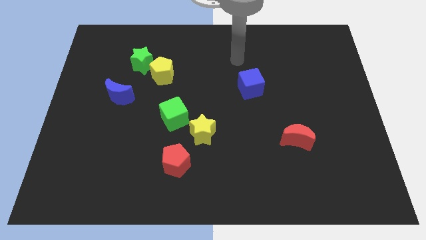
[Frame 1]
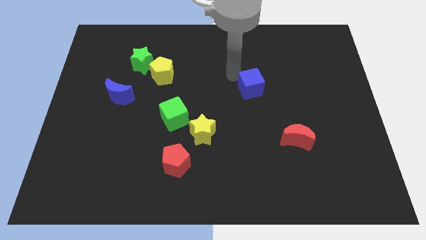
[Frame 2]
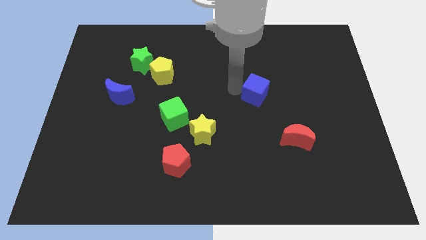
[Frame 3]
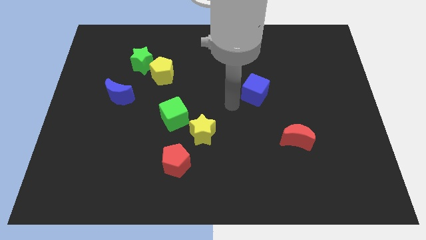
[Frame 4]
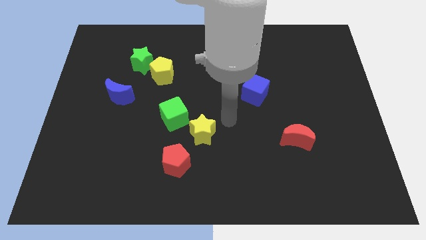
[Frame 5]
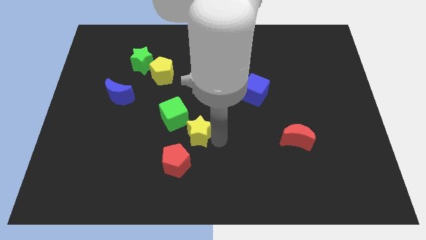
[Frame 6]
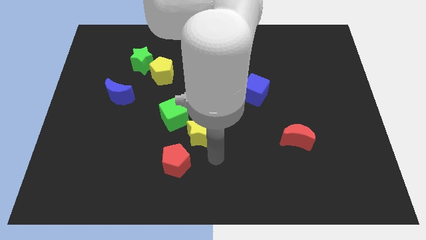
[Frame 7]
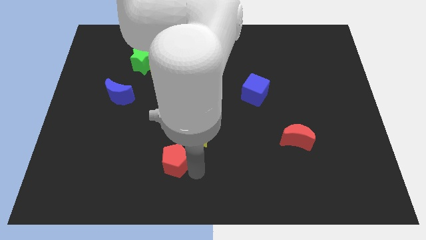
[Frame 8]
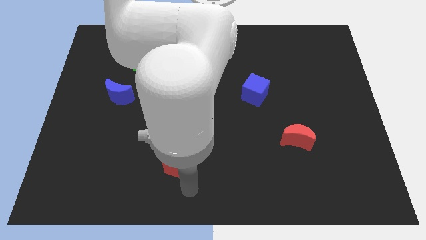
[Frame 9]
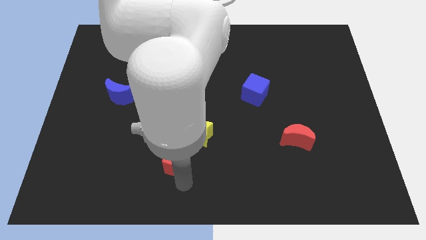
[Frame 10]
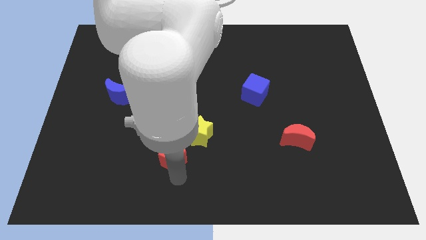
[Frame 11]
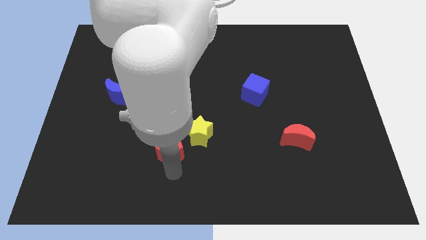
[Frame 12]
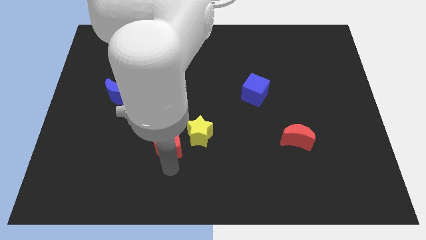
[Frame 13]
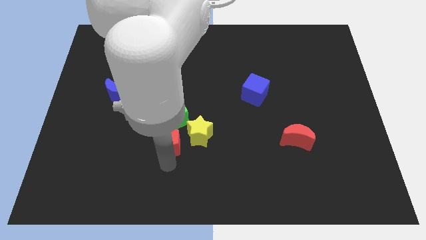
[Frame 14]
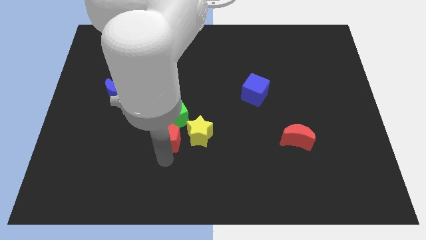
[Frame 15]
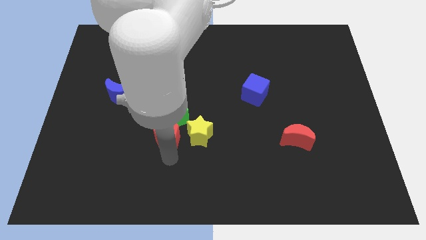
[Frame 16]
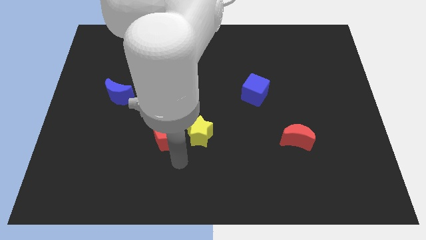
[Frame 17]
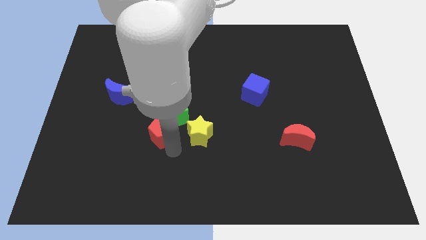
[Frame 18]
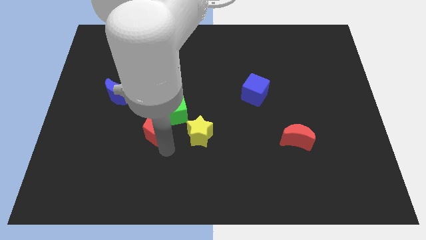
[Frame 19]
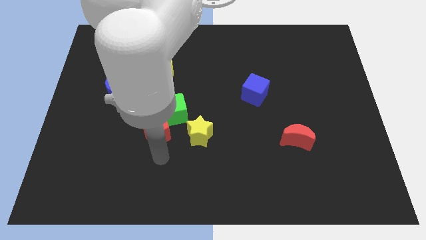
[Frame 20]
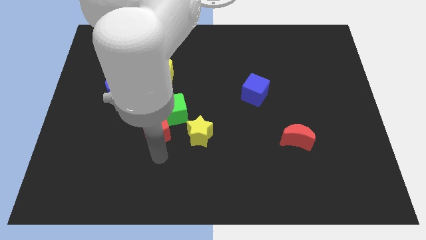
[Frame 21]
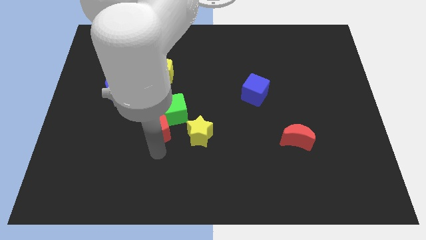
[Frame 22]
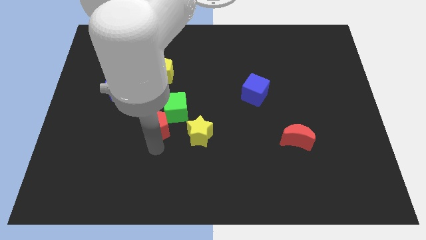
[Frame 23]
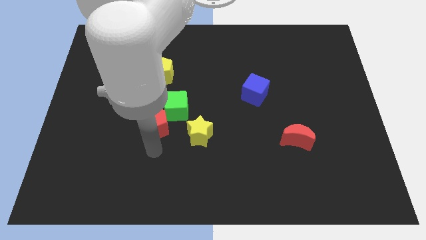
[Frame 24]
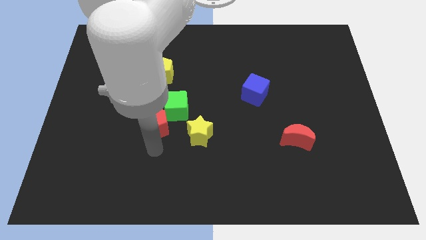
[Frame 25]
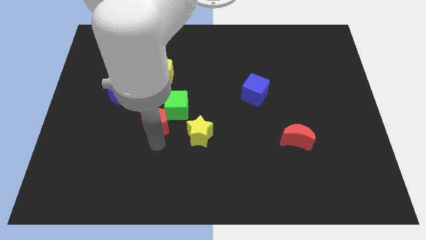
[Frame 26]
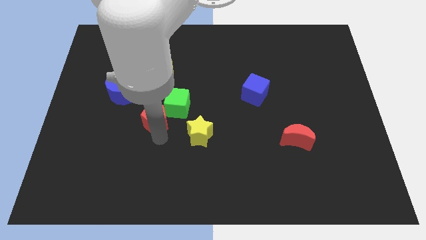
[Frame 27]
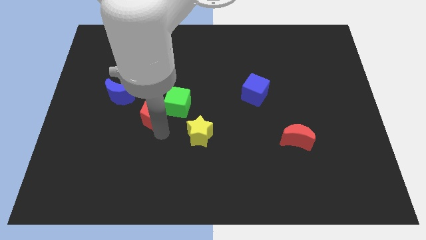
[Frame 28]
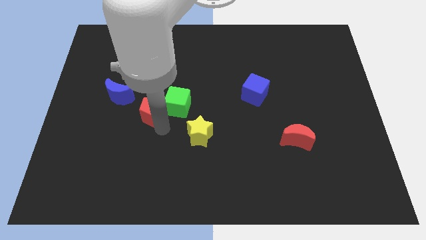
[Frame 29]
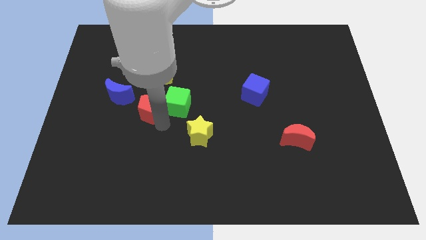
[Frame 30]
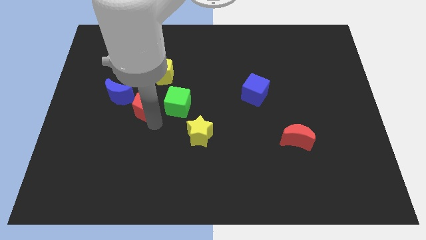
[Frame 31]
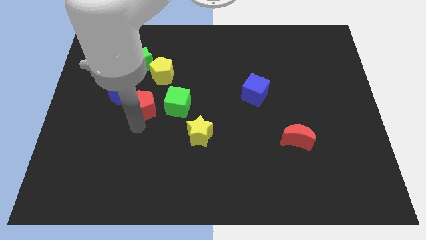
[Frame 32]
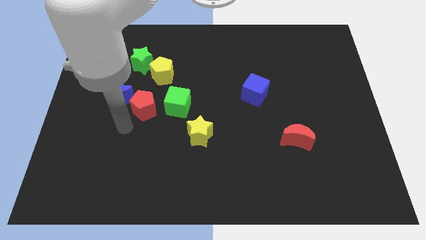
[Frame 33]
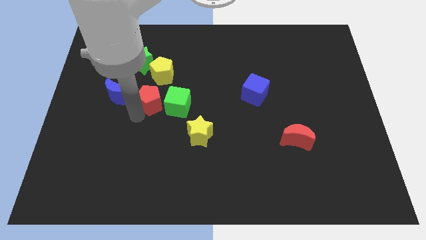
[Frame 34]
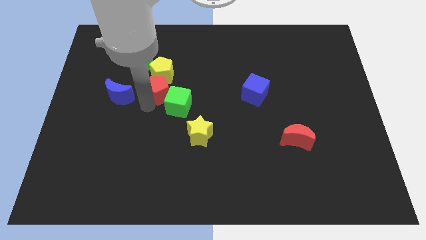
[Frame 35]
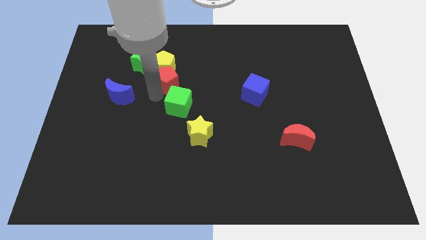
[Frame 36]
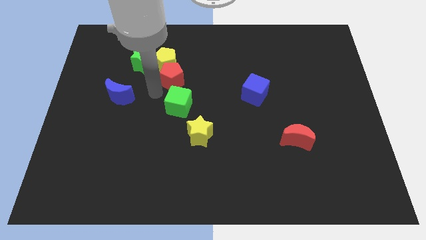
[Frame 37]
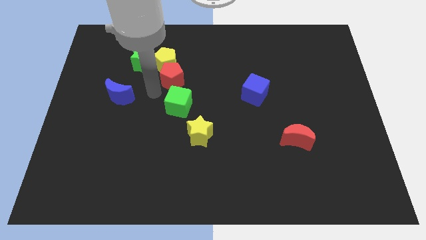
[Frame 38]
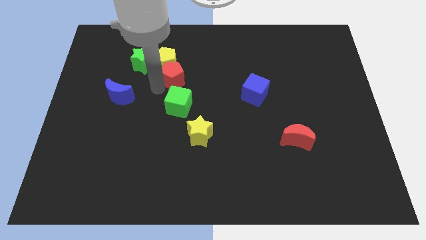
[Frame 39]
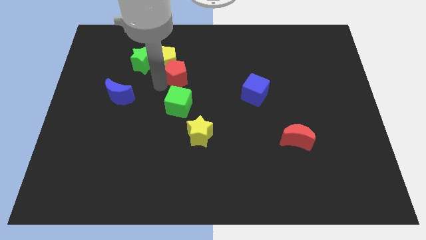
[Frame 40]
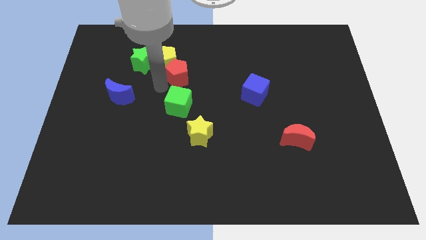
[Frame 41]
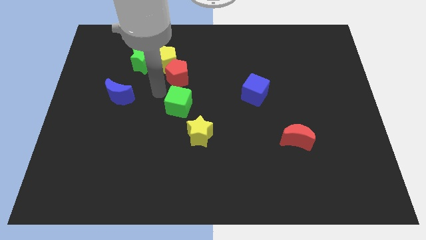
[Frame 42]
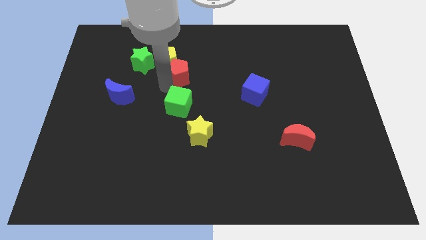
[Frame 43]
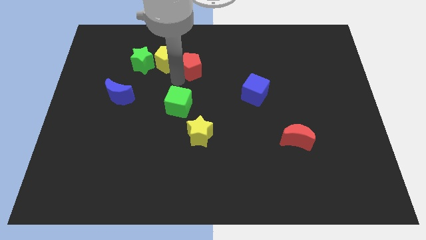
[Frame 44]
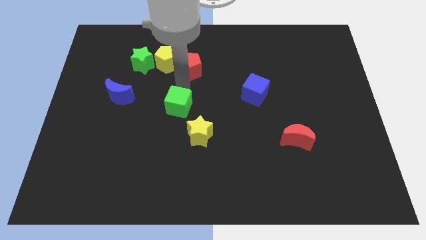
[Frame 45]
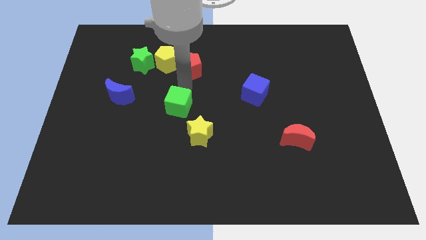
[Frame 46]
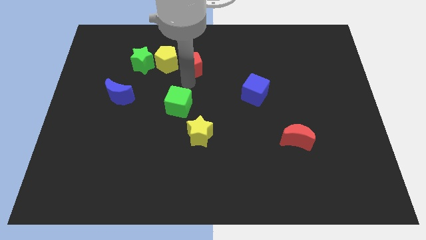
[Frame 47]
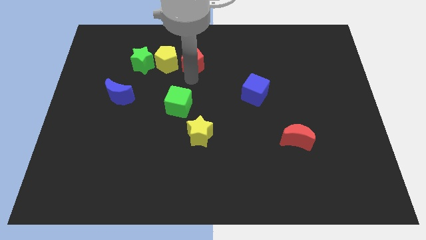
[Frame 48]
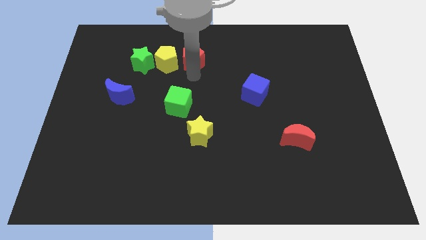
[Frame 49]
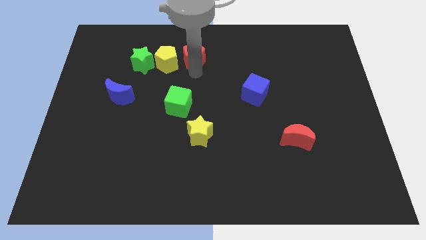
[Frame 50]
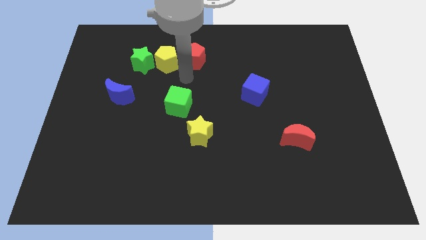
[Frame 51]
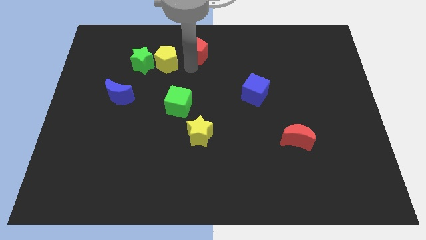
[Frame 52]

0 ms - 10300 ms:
push the red pentagon to the top

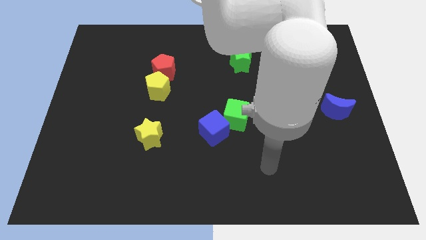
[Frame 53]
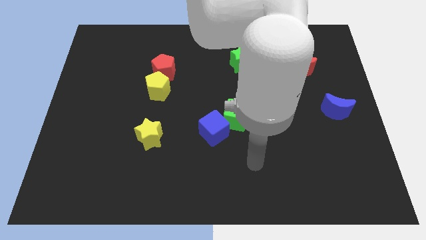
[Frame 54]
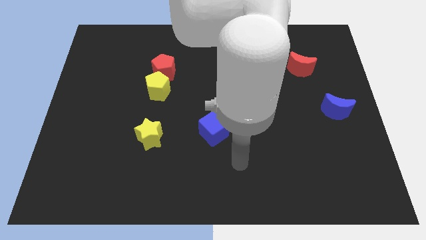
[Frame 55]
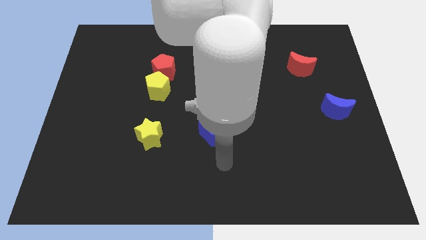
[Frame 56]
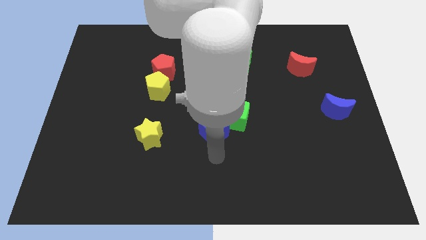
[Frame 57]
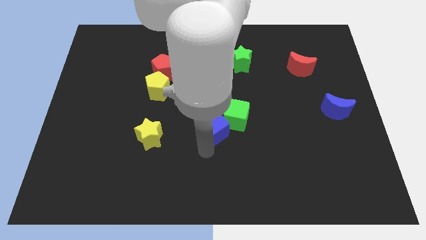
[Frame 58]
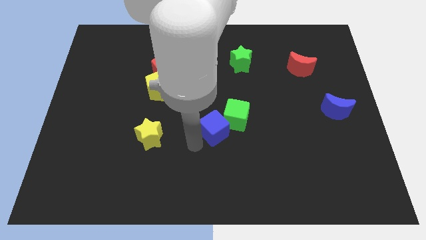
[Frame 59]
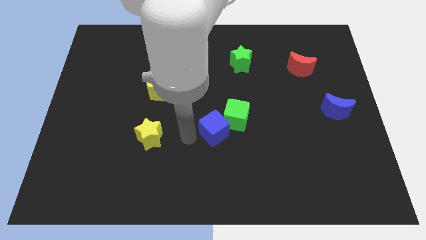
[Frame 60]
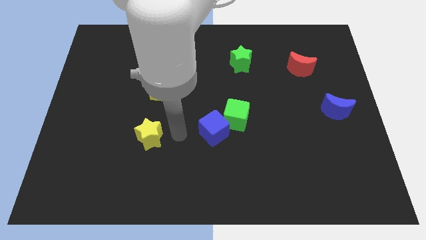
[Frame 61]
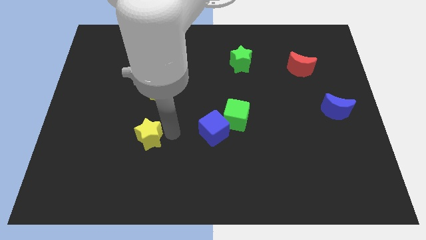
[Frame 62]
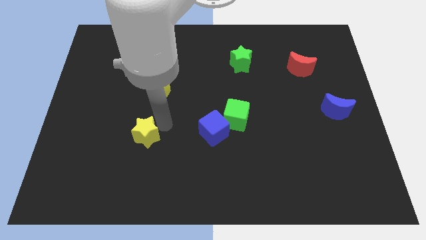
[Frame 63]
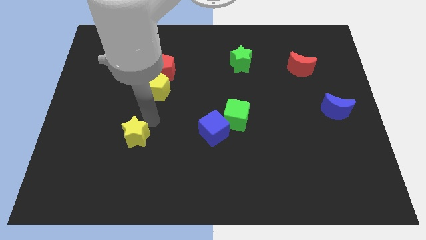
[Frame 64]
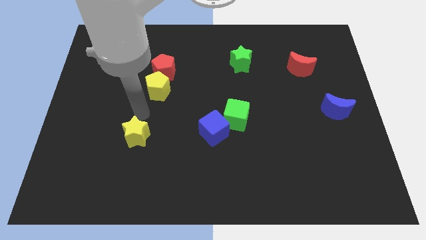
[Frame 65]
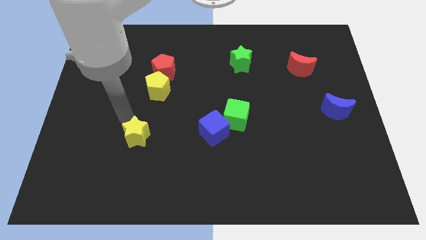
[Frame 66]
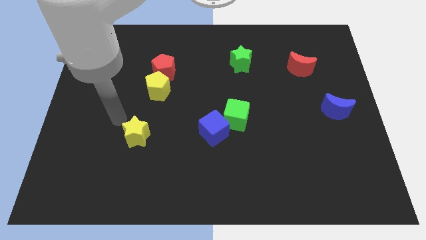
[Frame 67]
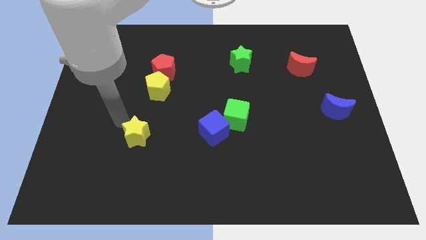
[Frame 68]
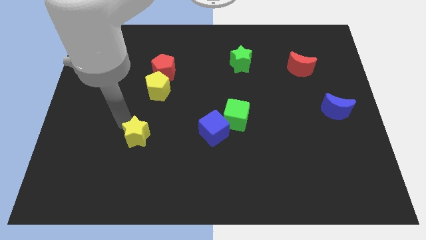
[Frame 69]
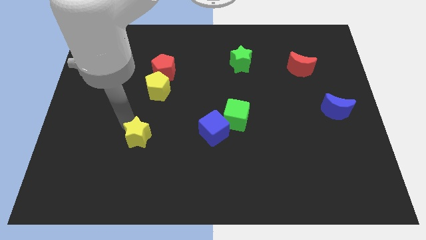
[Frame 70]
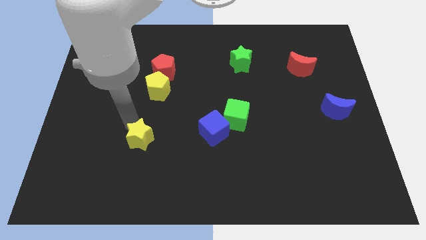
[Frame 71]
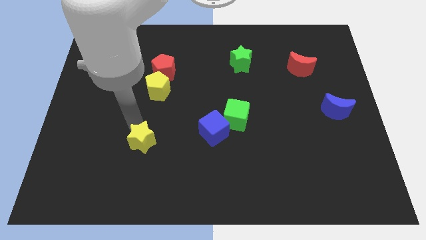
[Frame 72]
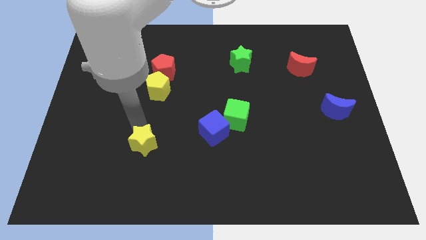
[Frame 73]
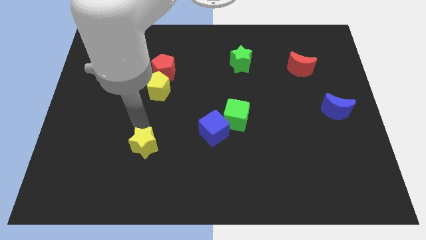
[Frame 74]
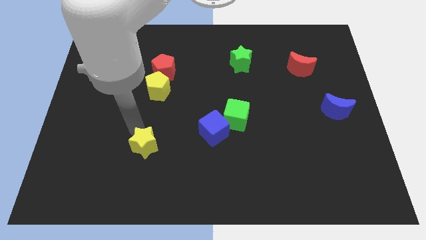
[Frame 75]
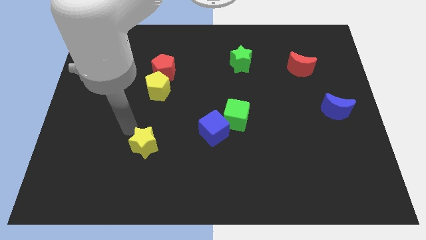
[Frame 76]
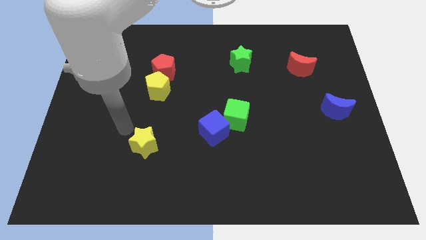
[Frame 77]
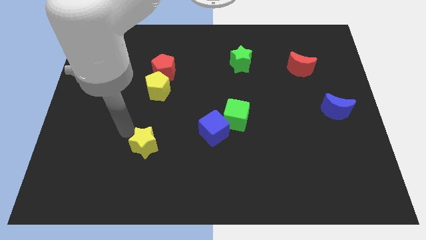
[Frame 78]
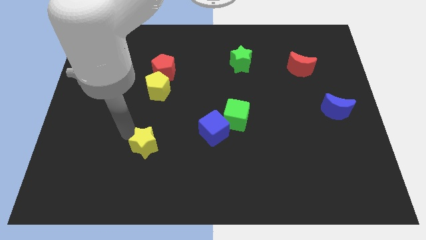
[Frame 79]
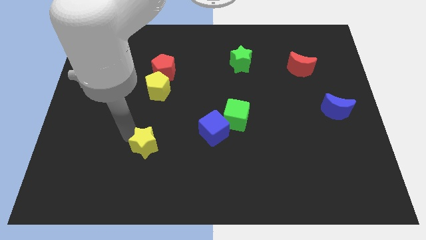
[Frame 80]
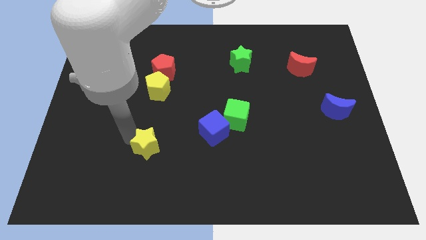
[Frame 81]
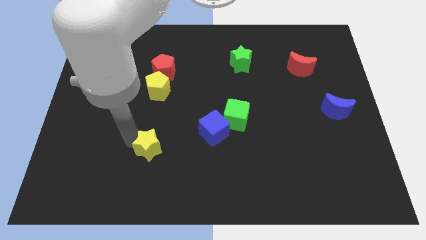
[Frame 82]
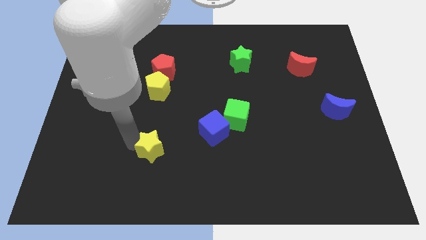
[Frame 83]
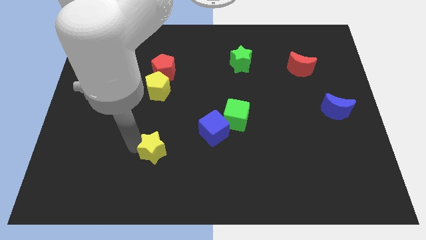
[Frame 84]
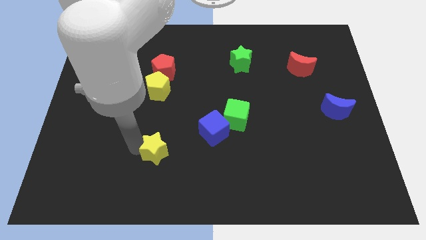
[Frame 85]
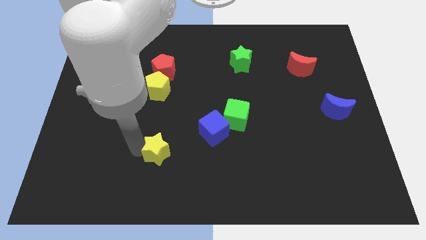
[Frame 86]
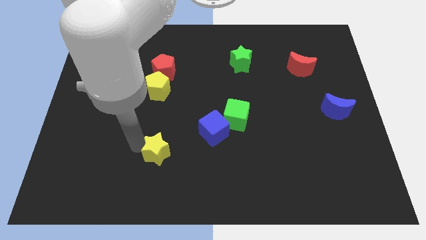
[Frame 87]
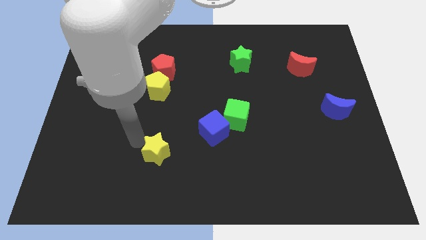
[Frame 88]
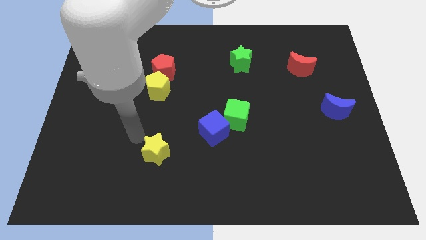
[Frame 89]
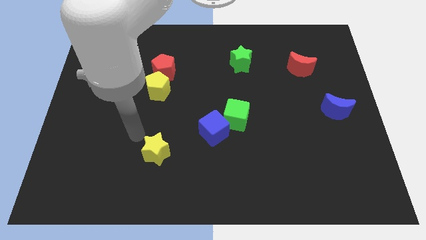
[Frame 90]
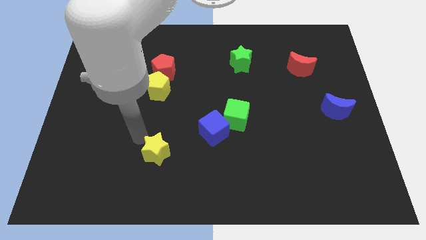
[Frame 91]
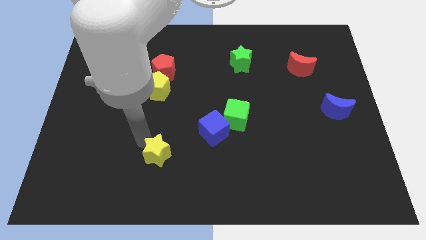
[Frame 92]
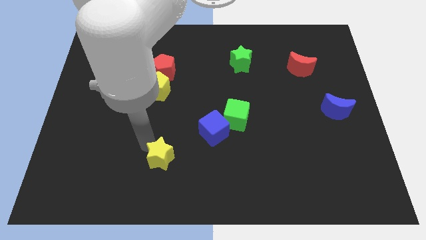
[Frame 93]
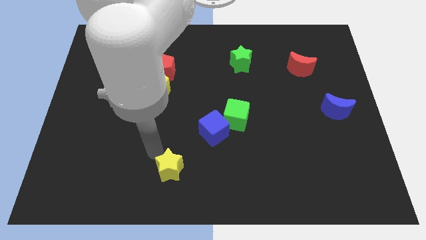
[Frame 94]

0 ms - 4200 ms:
move the yellow star to the bottom side
